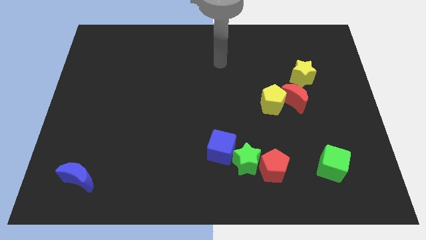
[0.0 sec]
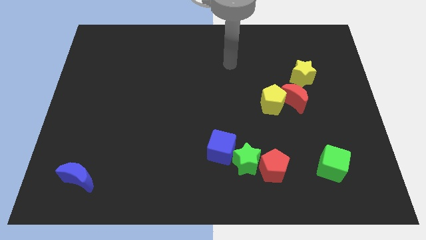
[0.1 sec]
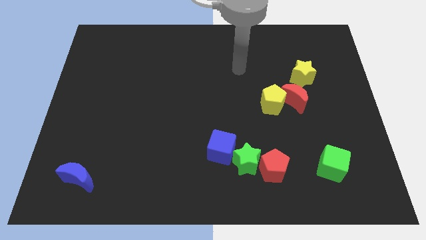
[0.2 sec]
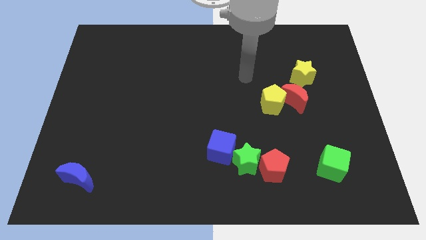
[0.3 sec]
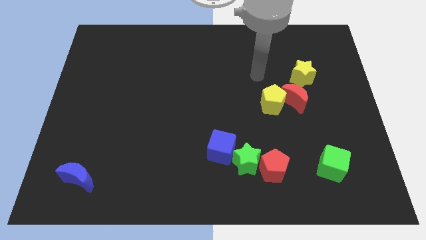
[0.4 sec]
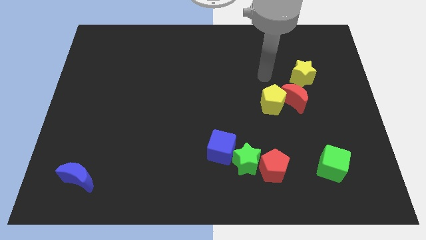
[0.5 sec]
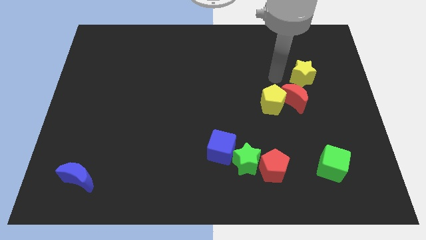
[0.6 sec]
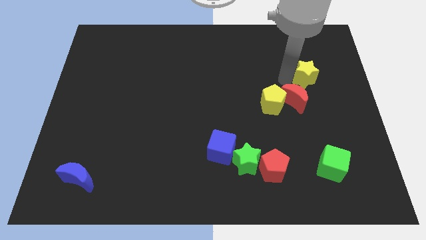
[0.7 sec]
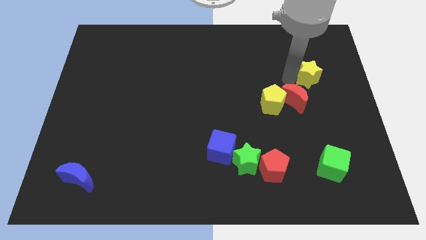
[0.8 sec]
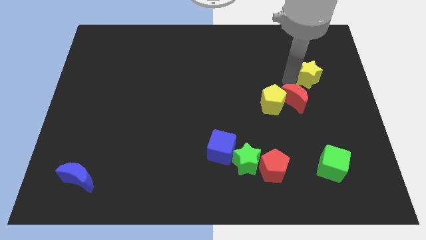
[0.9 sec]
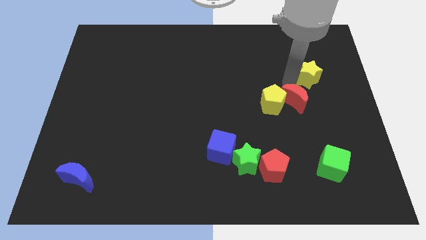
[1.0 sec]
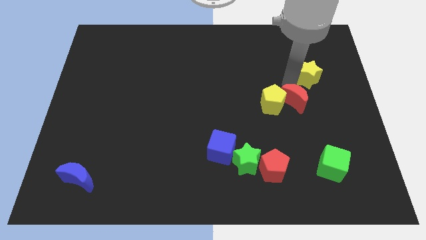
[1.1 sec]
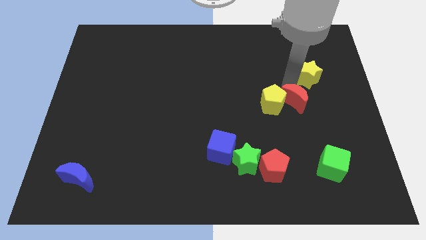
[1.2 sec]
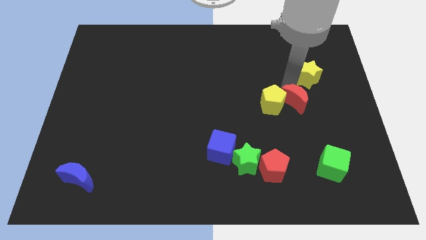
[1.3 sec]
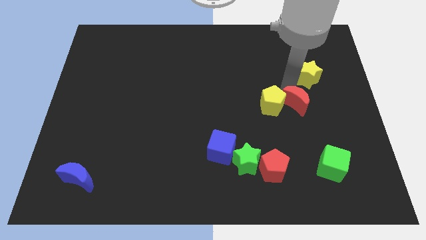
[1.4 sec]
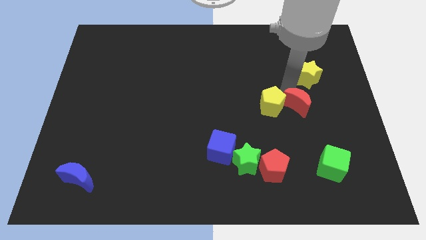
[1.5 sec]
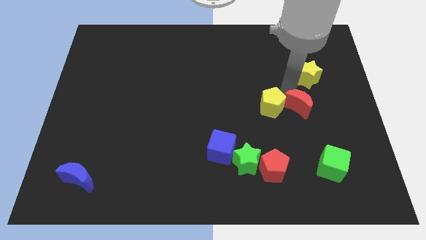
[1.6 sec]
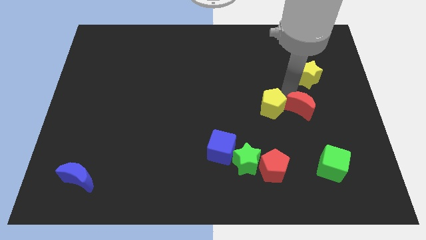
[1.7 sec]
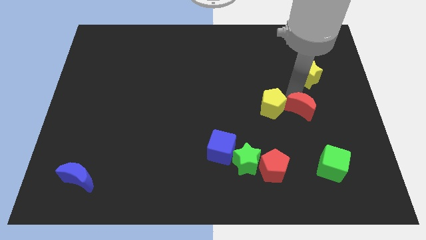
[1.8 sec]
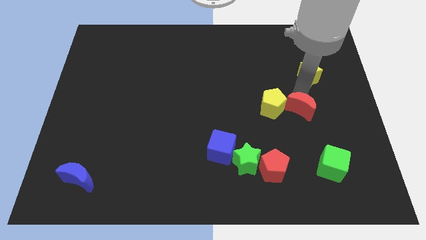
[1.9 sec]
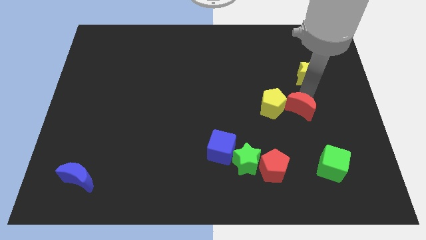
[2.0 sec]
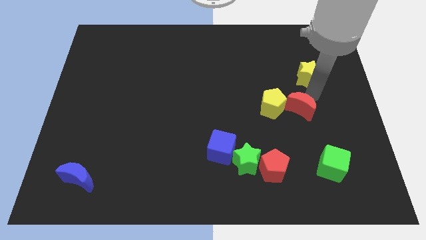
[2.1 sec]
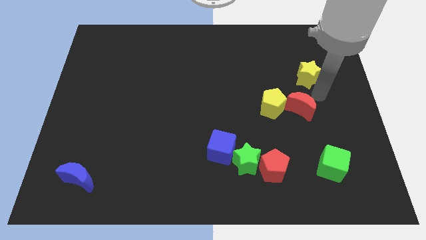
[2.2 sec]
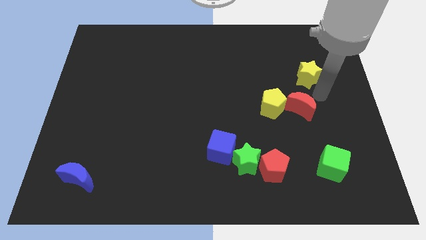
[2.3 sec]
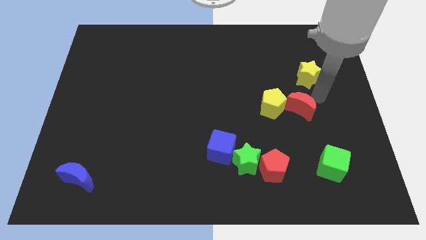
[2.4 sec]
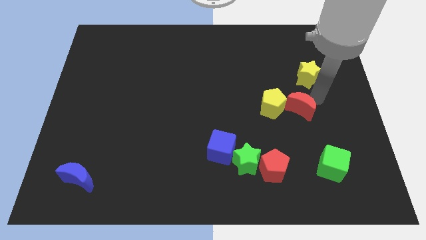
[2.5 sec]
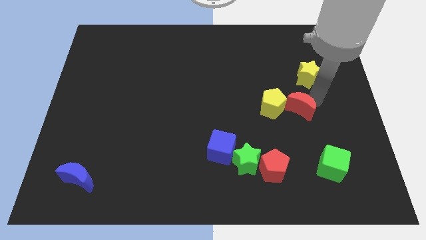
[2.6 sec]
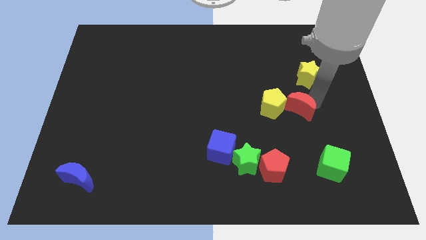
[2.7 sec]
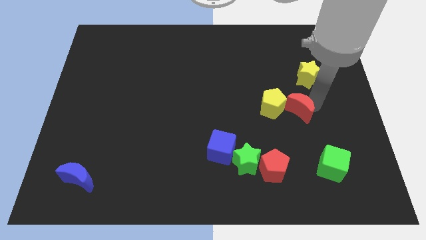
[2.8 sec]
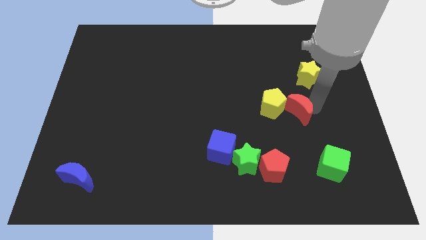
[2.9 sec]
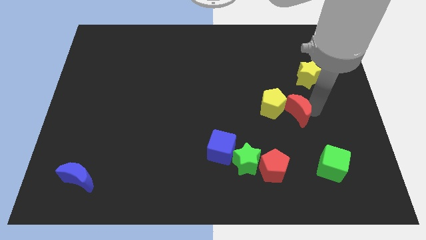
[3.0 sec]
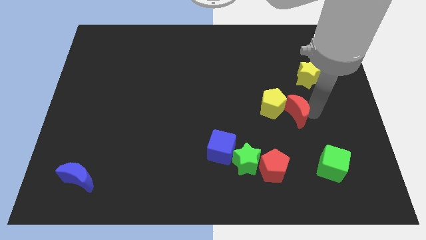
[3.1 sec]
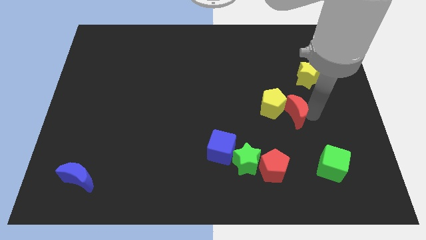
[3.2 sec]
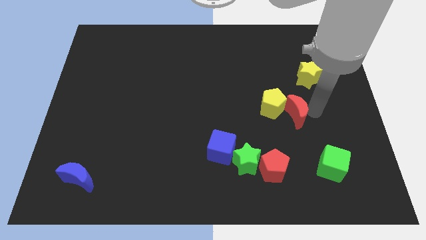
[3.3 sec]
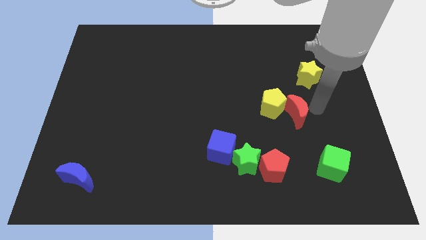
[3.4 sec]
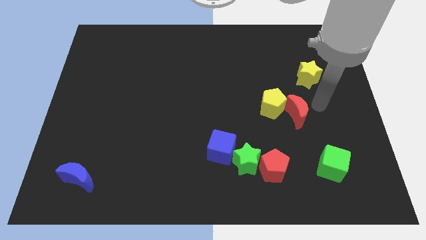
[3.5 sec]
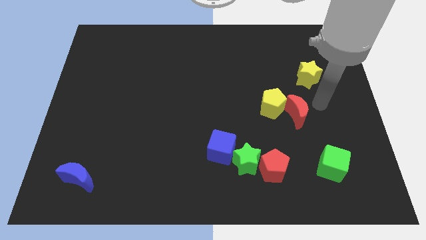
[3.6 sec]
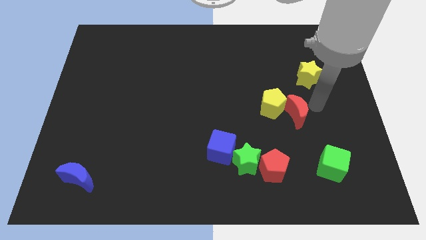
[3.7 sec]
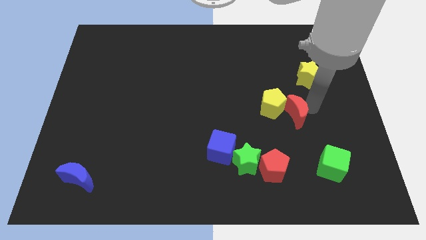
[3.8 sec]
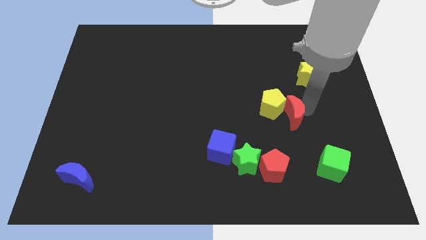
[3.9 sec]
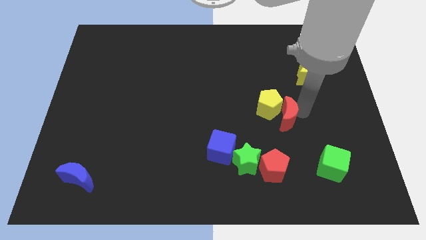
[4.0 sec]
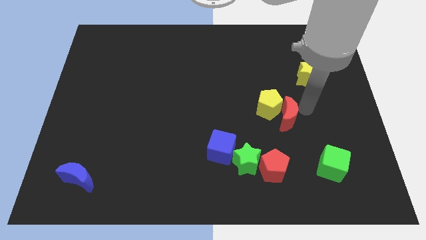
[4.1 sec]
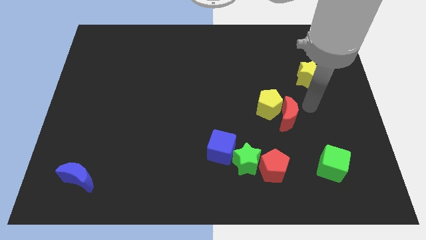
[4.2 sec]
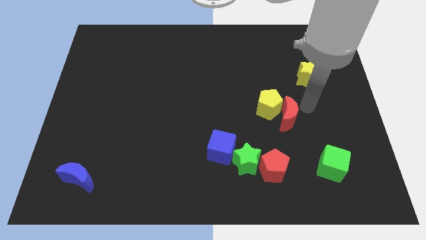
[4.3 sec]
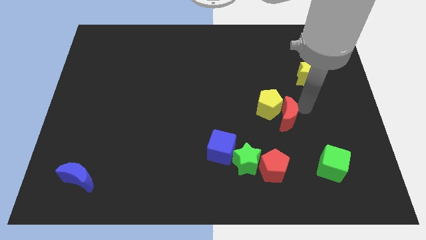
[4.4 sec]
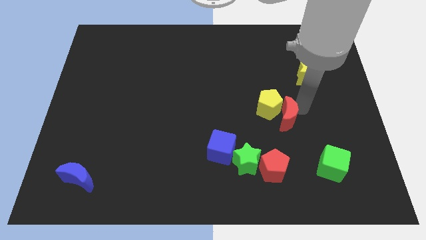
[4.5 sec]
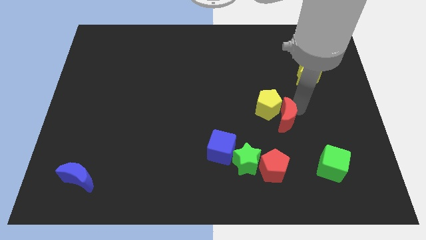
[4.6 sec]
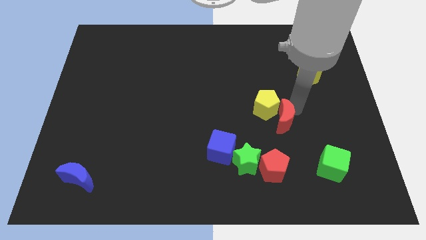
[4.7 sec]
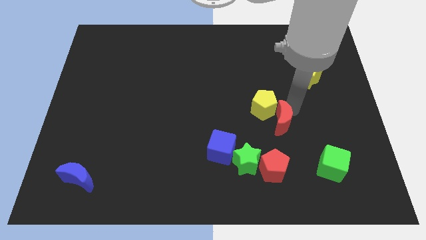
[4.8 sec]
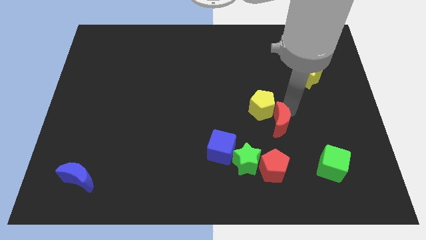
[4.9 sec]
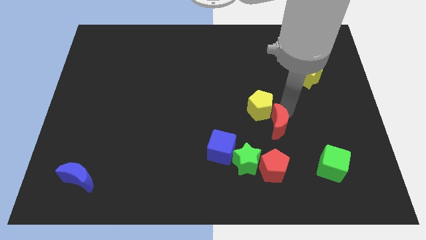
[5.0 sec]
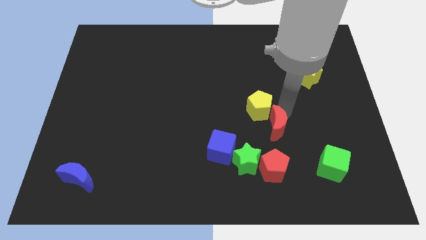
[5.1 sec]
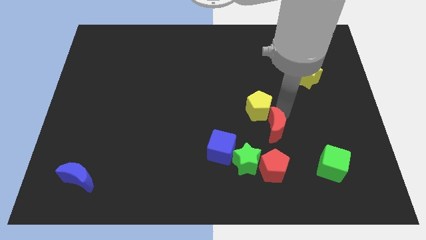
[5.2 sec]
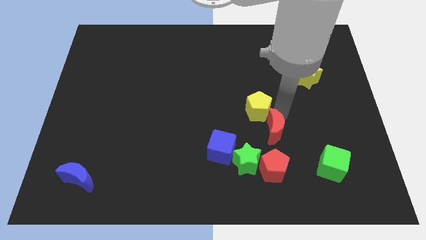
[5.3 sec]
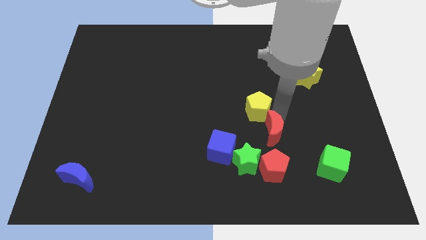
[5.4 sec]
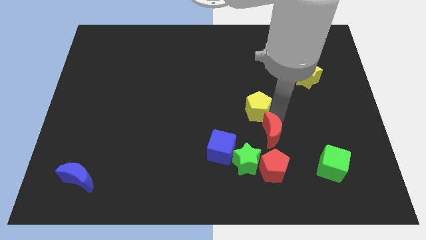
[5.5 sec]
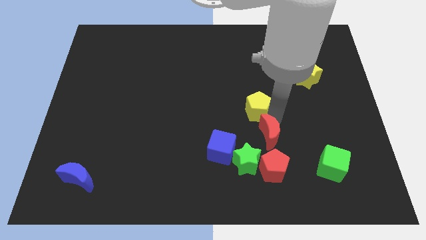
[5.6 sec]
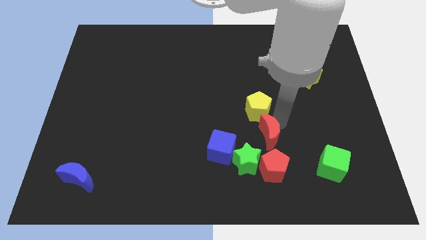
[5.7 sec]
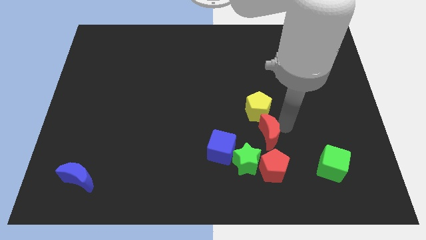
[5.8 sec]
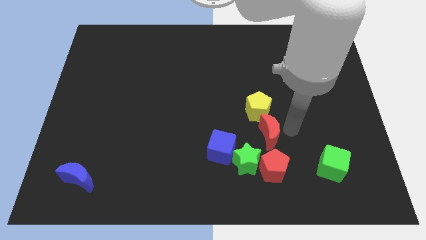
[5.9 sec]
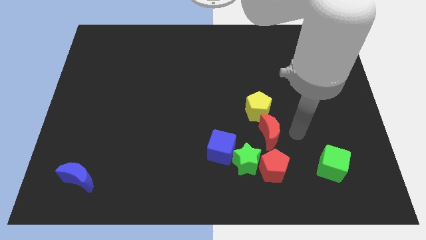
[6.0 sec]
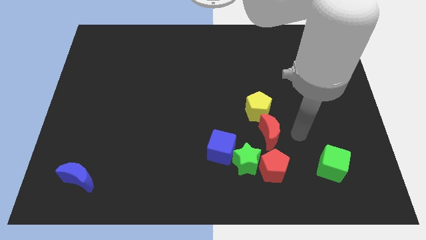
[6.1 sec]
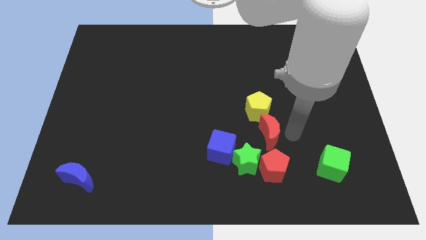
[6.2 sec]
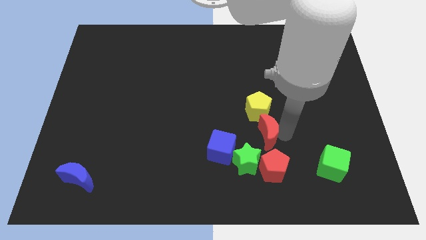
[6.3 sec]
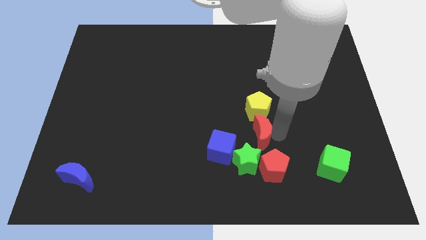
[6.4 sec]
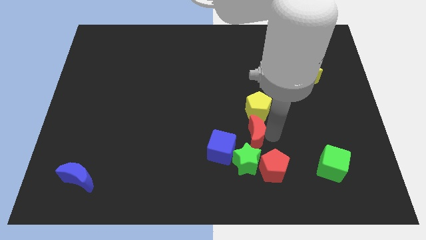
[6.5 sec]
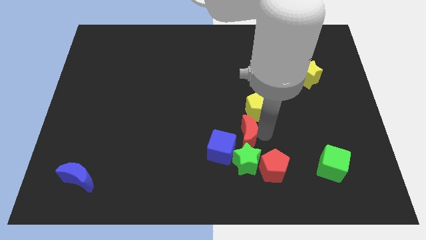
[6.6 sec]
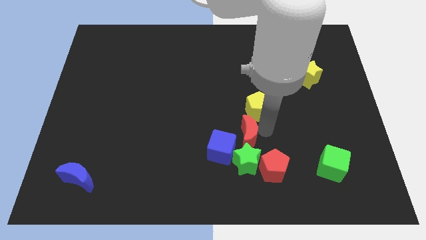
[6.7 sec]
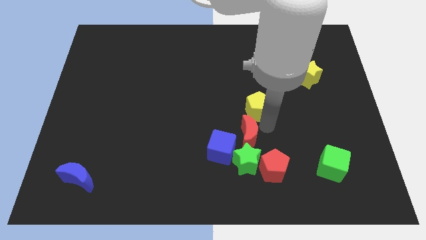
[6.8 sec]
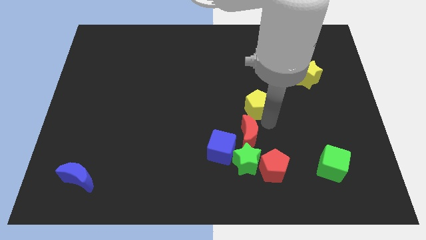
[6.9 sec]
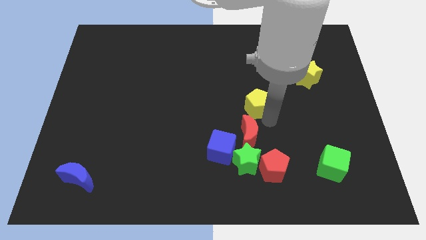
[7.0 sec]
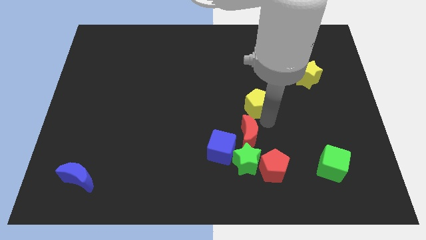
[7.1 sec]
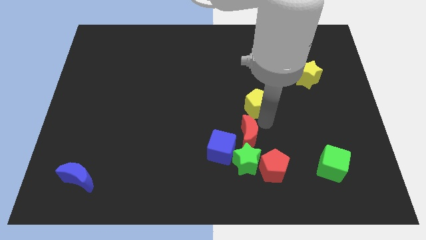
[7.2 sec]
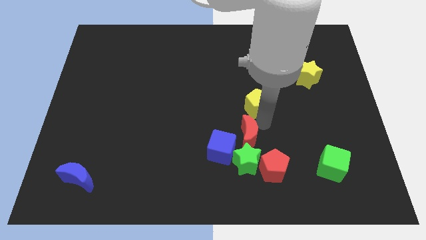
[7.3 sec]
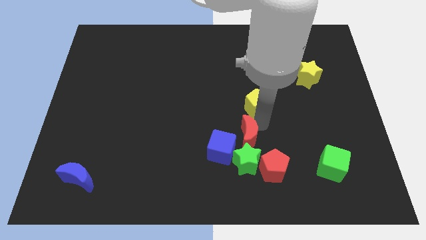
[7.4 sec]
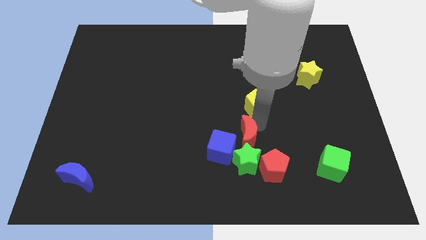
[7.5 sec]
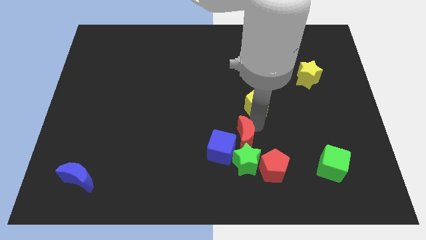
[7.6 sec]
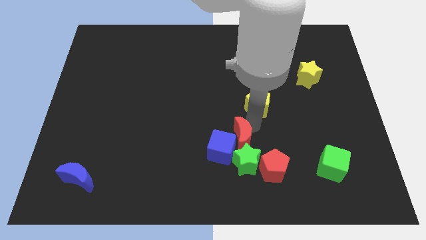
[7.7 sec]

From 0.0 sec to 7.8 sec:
slide the red moon close to the blue cube
